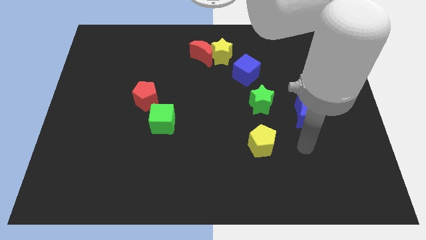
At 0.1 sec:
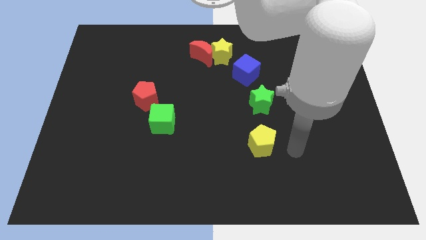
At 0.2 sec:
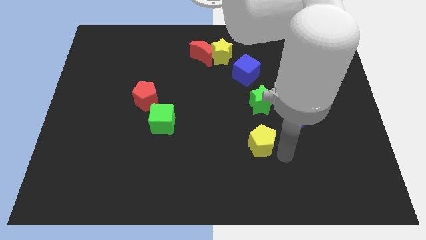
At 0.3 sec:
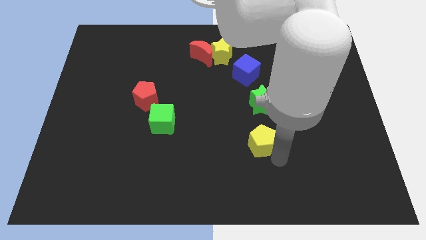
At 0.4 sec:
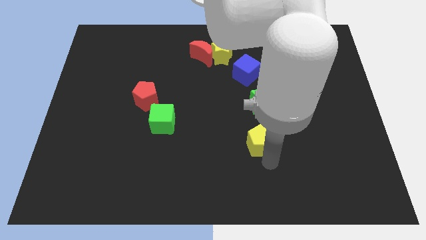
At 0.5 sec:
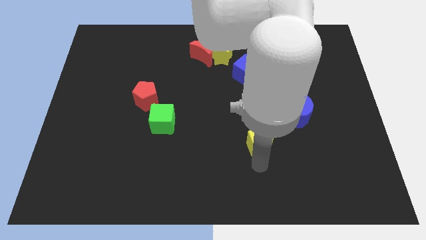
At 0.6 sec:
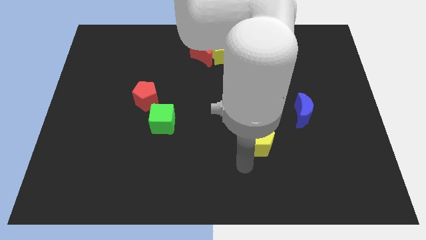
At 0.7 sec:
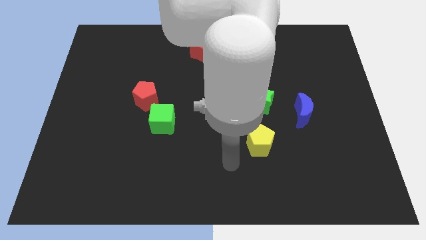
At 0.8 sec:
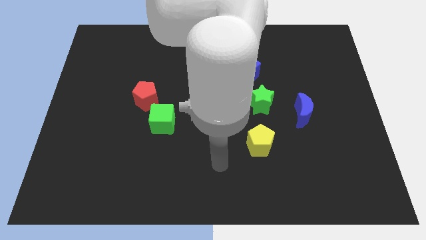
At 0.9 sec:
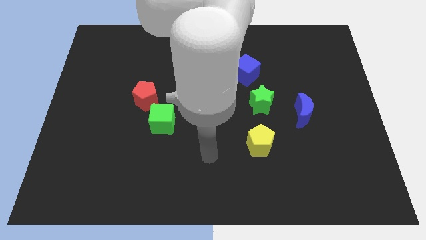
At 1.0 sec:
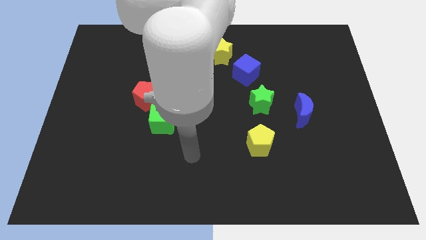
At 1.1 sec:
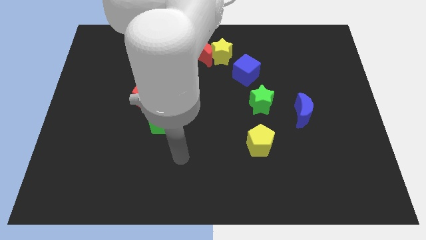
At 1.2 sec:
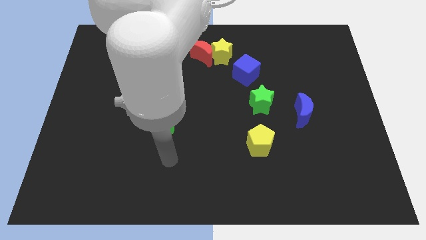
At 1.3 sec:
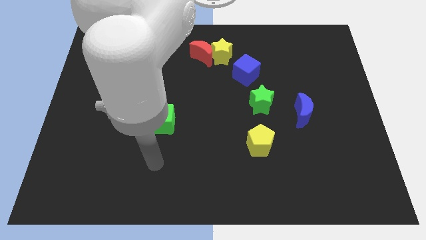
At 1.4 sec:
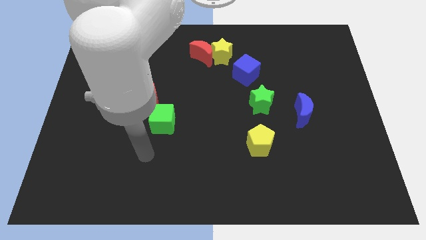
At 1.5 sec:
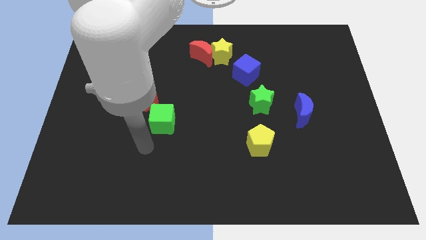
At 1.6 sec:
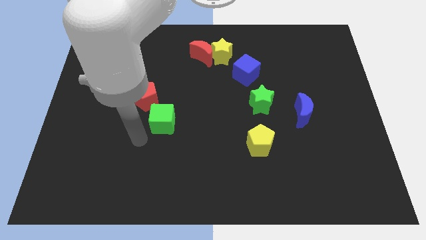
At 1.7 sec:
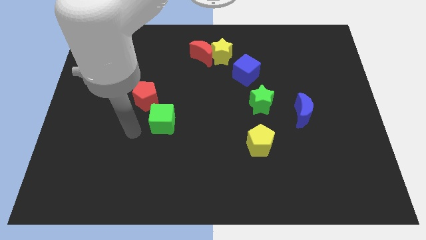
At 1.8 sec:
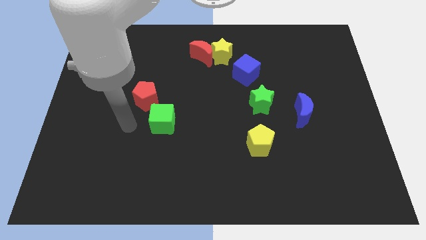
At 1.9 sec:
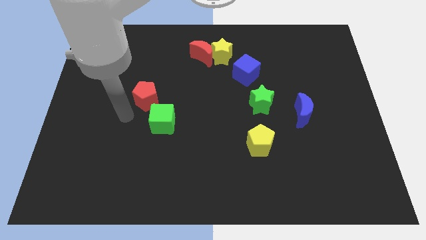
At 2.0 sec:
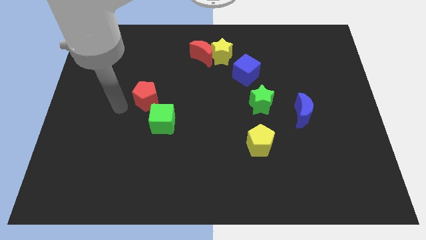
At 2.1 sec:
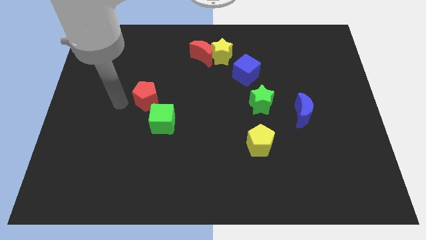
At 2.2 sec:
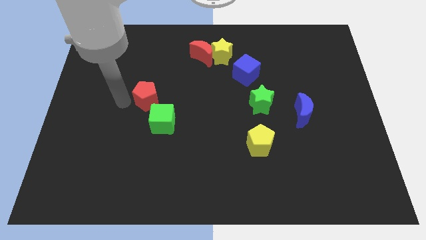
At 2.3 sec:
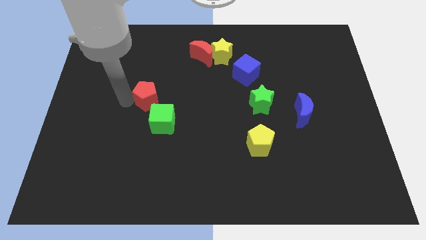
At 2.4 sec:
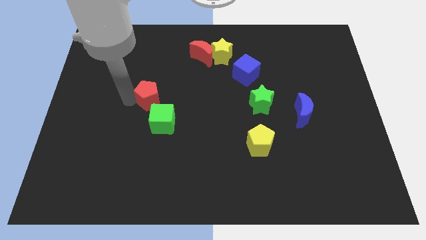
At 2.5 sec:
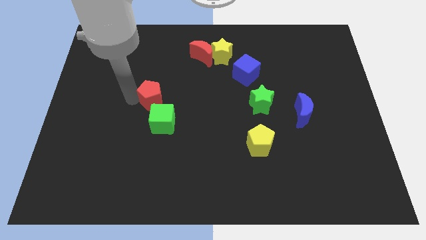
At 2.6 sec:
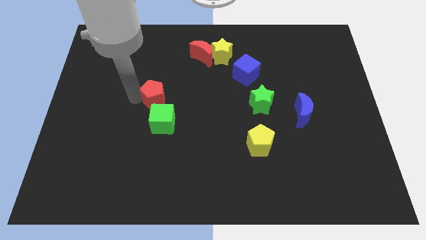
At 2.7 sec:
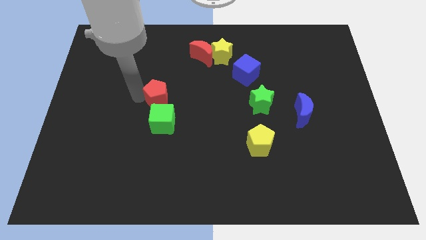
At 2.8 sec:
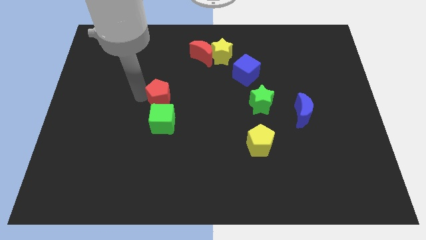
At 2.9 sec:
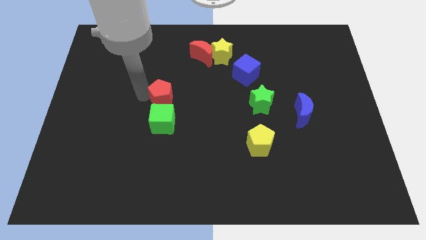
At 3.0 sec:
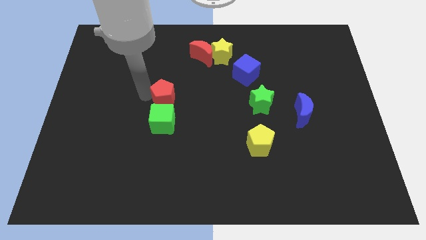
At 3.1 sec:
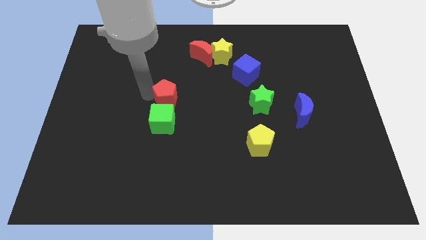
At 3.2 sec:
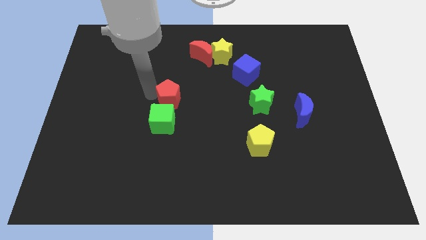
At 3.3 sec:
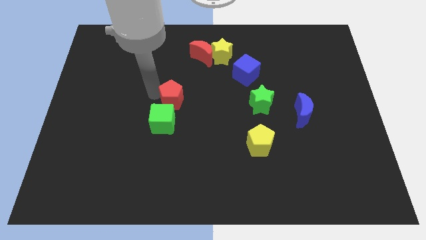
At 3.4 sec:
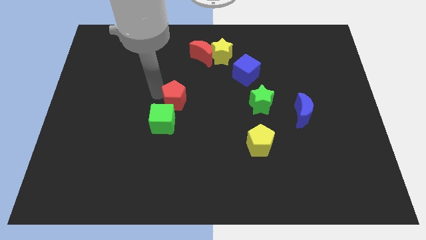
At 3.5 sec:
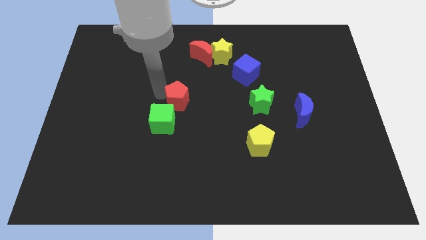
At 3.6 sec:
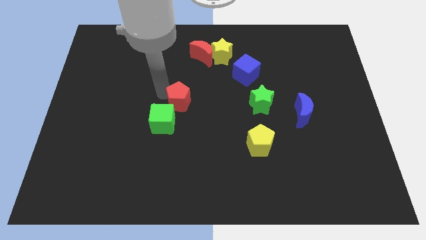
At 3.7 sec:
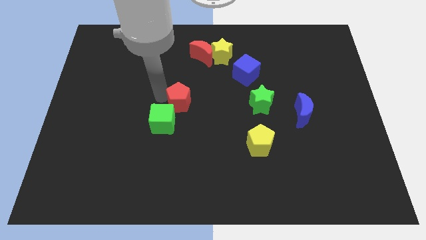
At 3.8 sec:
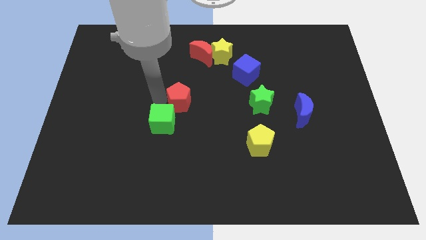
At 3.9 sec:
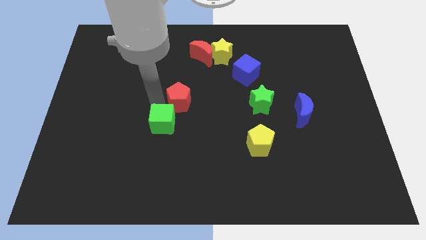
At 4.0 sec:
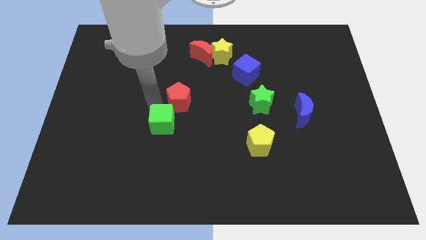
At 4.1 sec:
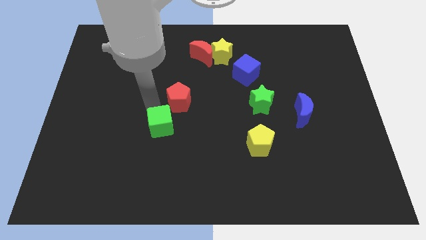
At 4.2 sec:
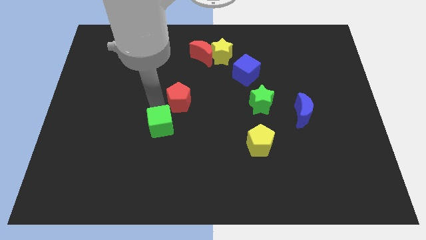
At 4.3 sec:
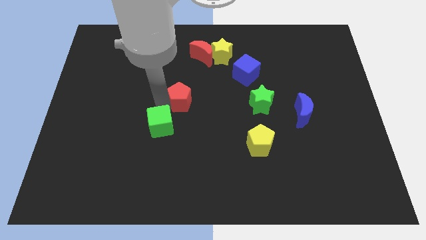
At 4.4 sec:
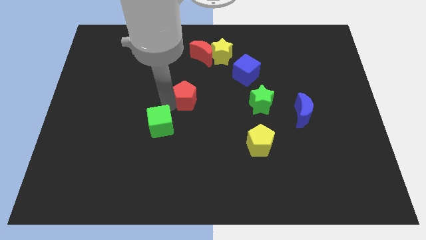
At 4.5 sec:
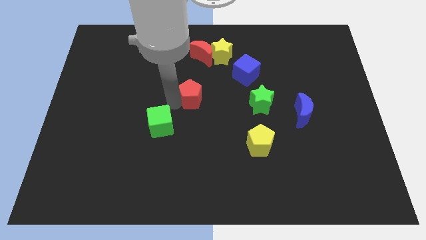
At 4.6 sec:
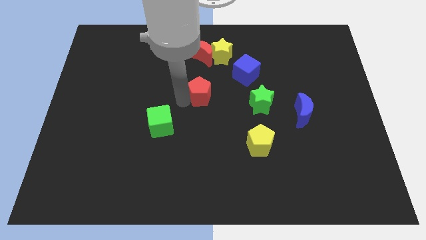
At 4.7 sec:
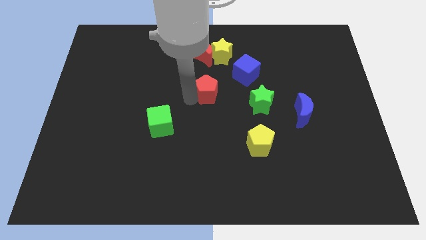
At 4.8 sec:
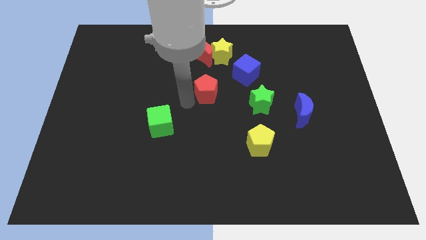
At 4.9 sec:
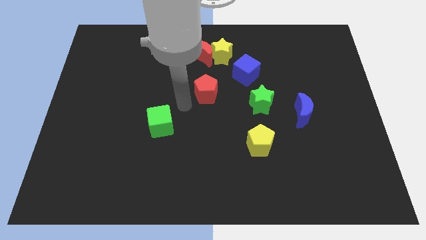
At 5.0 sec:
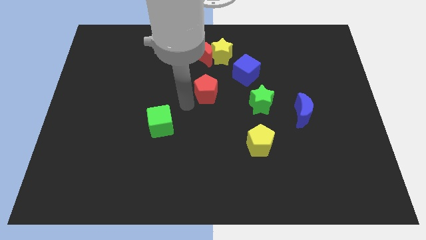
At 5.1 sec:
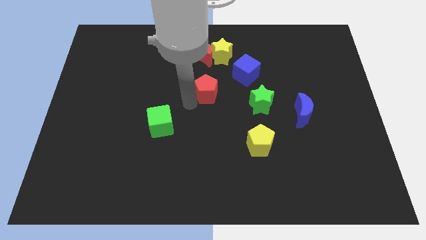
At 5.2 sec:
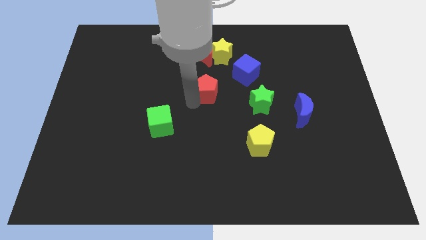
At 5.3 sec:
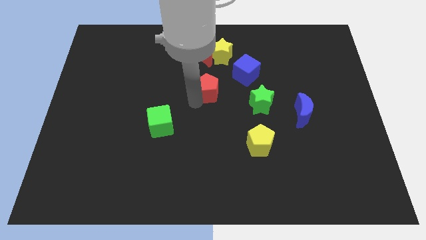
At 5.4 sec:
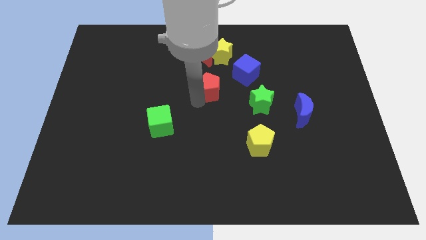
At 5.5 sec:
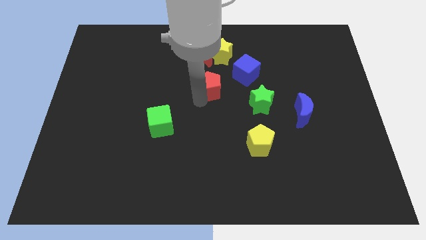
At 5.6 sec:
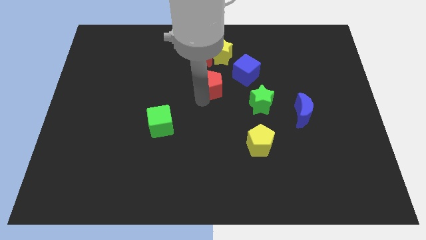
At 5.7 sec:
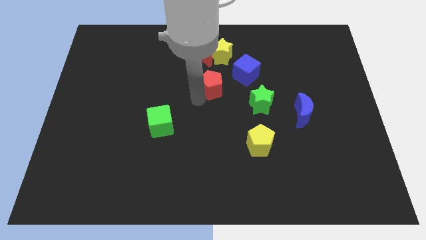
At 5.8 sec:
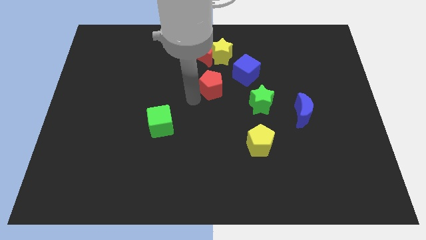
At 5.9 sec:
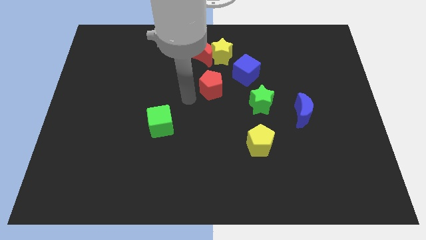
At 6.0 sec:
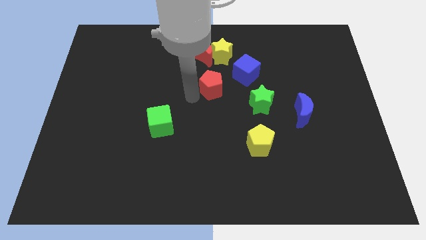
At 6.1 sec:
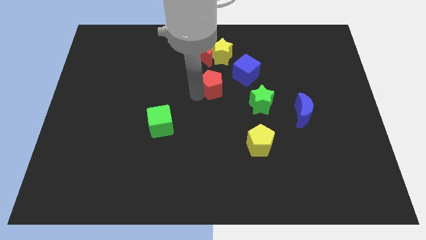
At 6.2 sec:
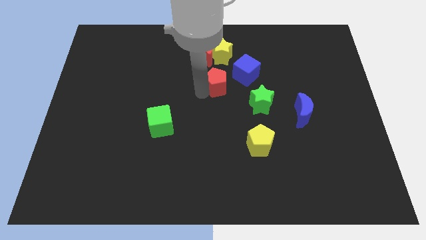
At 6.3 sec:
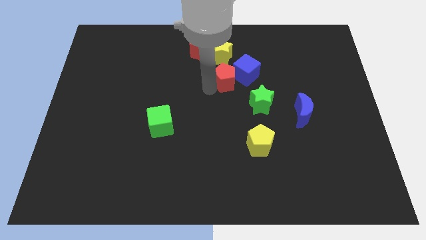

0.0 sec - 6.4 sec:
push the red pentagon next to the blue cube

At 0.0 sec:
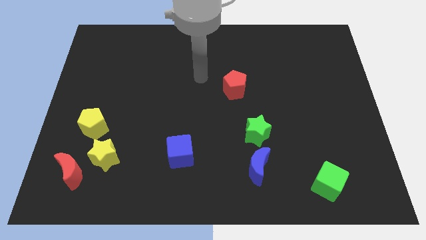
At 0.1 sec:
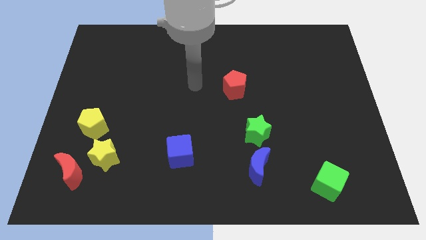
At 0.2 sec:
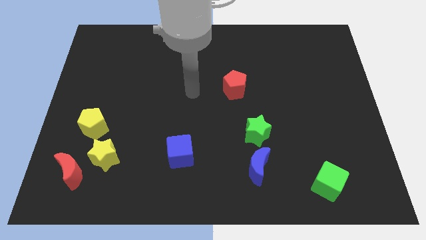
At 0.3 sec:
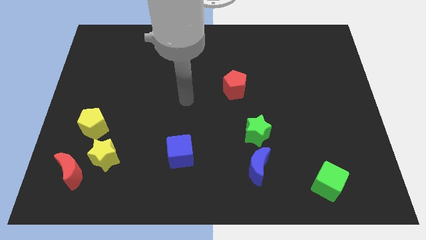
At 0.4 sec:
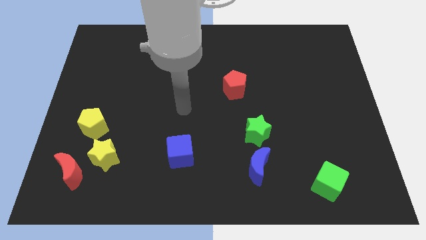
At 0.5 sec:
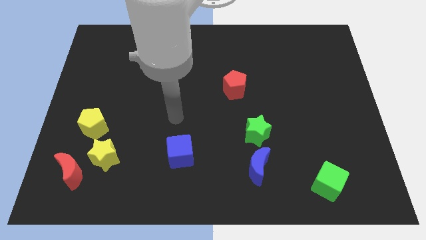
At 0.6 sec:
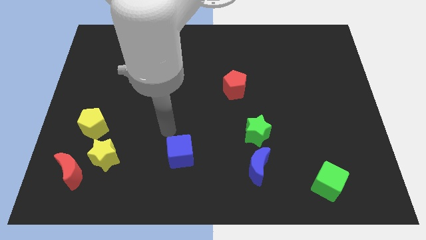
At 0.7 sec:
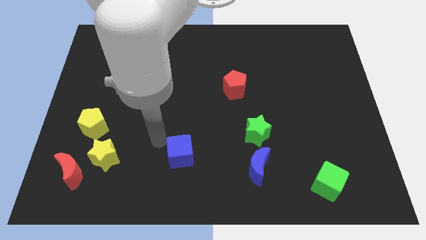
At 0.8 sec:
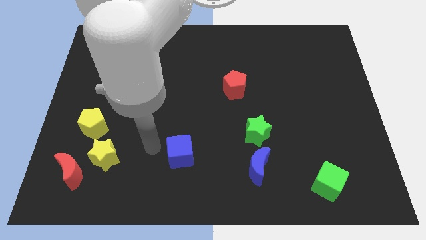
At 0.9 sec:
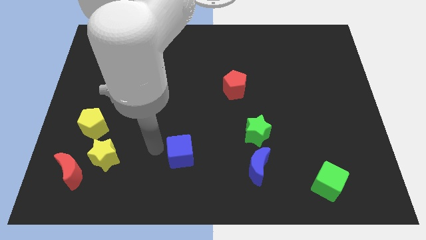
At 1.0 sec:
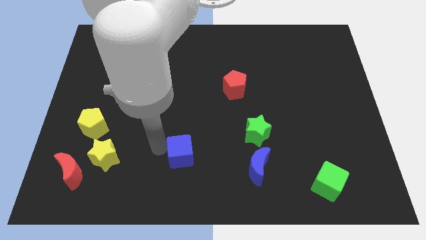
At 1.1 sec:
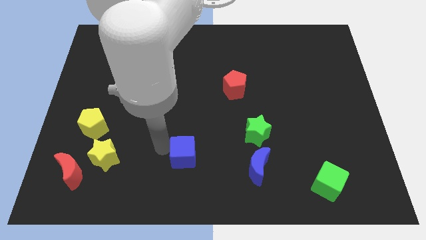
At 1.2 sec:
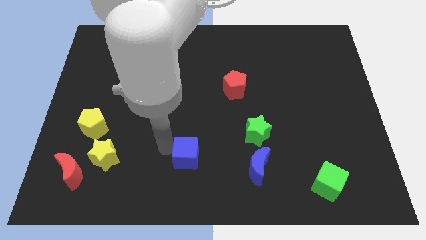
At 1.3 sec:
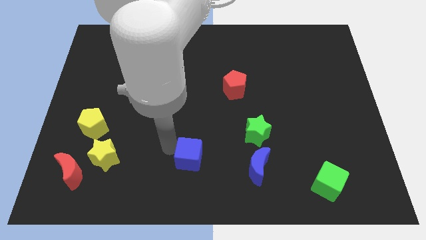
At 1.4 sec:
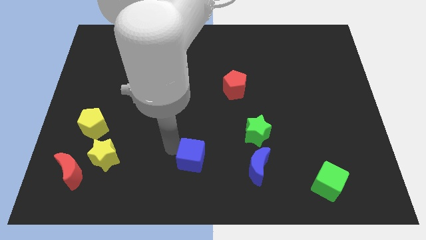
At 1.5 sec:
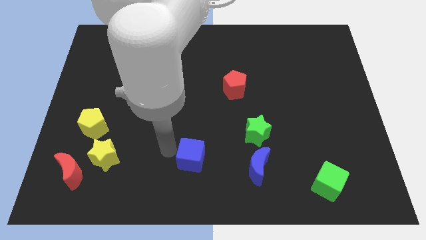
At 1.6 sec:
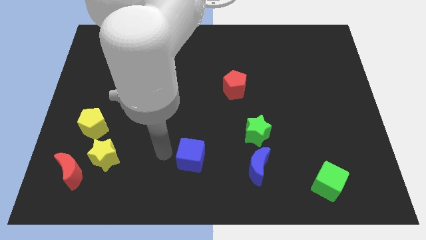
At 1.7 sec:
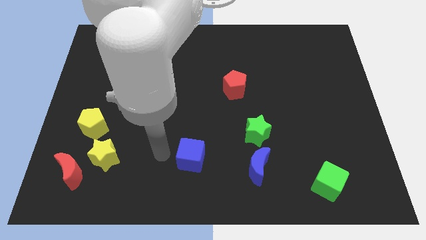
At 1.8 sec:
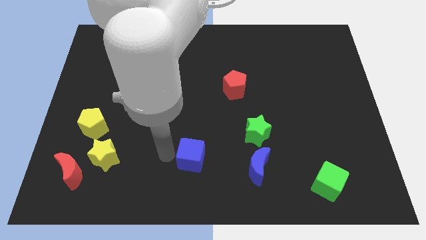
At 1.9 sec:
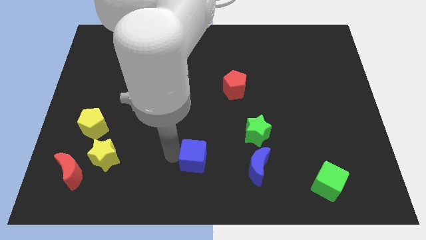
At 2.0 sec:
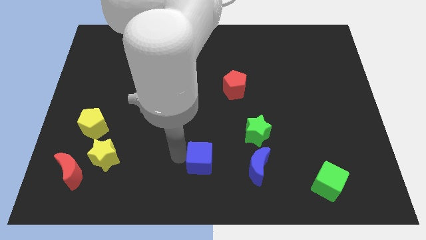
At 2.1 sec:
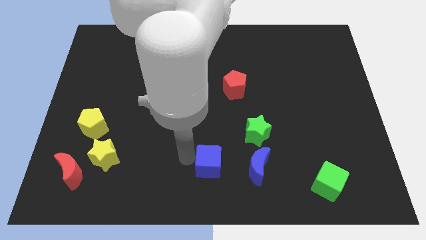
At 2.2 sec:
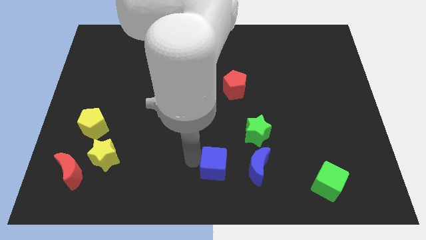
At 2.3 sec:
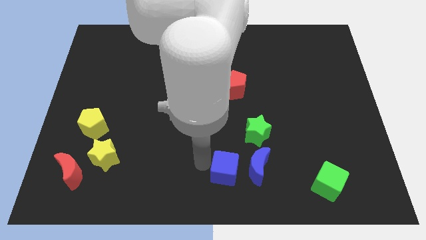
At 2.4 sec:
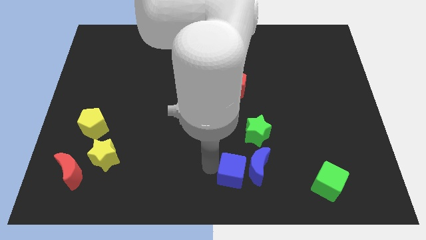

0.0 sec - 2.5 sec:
put the blue cube close to the blue moon
